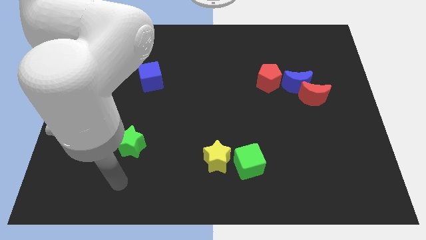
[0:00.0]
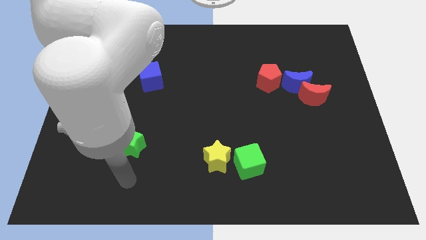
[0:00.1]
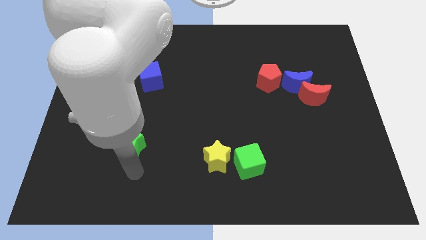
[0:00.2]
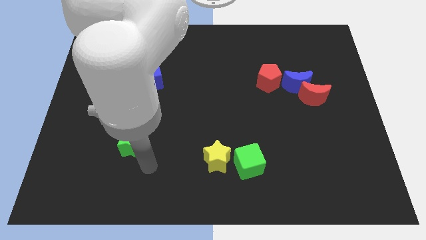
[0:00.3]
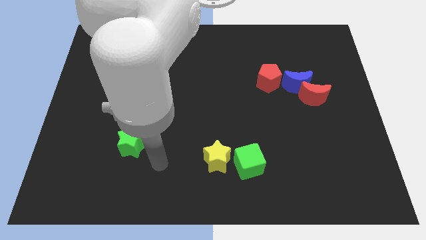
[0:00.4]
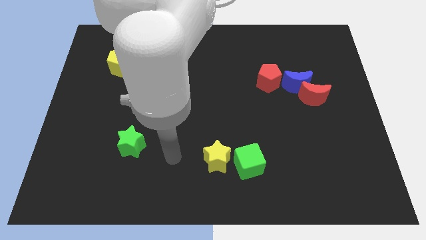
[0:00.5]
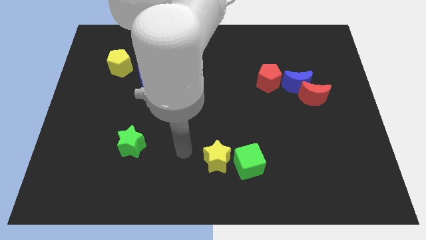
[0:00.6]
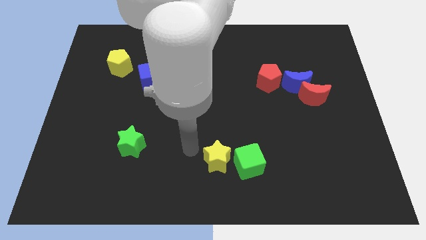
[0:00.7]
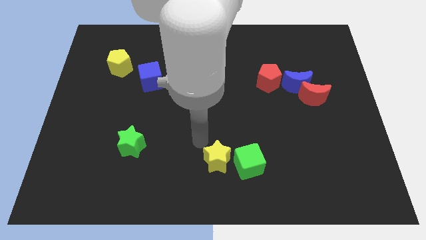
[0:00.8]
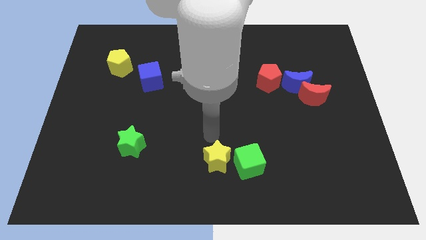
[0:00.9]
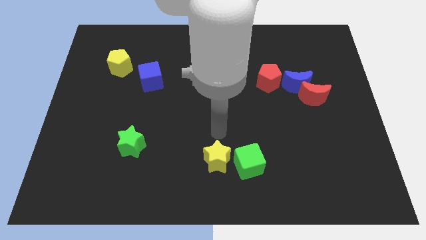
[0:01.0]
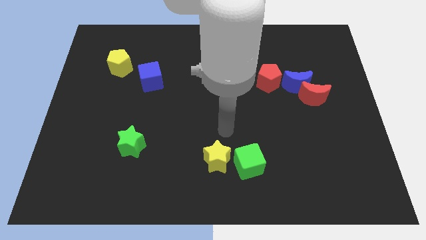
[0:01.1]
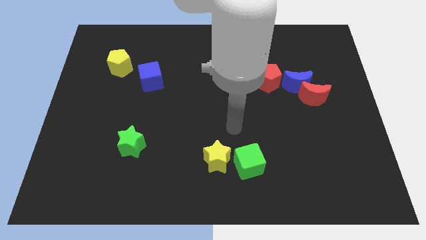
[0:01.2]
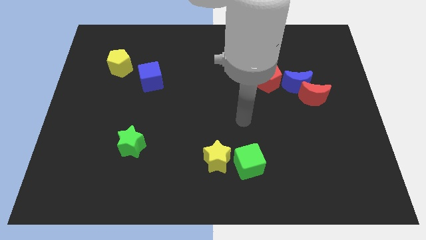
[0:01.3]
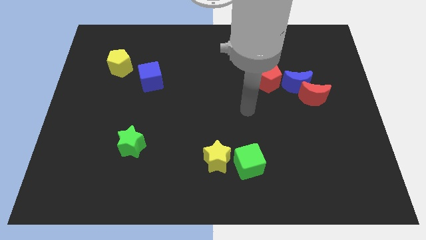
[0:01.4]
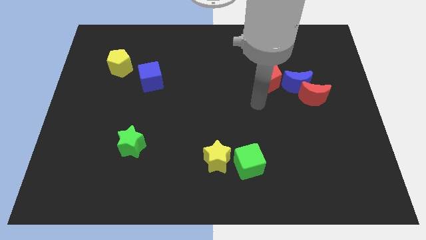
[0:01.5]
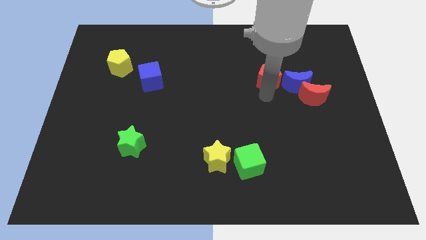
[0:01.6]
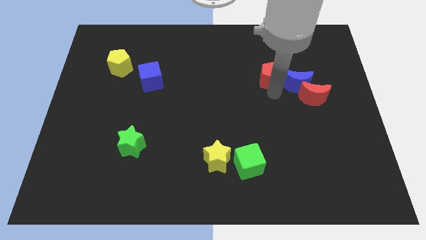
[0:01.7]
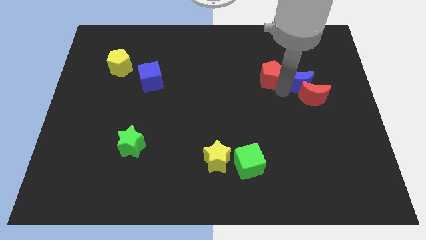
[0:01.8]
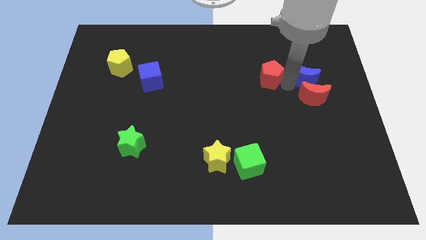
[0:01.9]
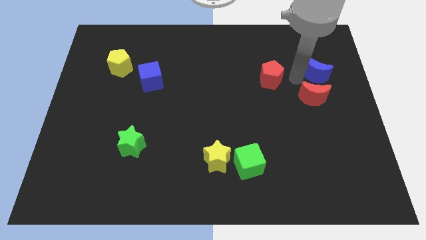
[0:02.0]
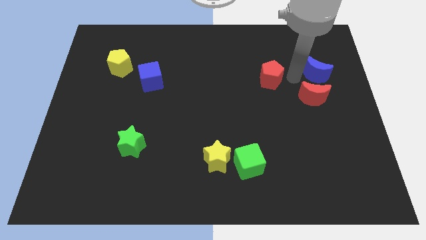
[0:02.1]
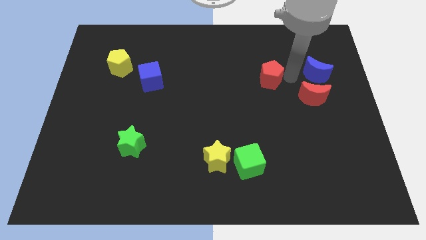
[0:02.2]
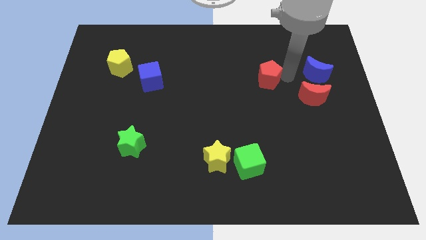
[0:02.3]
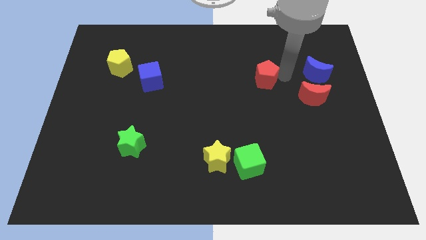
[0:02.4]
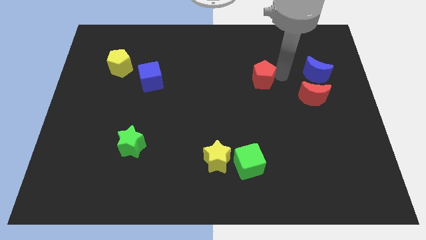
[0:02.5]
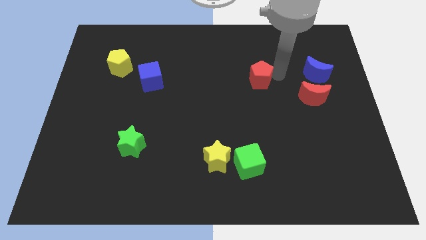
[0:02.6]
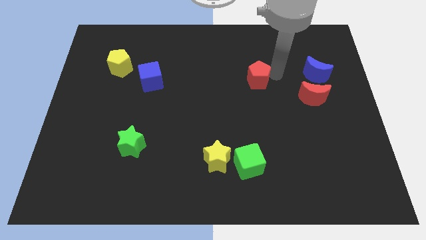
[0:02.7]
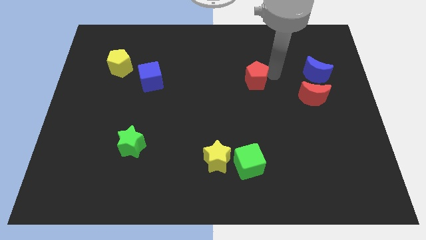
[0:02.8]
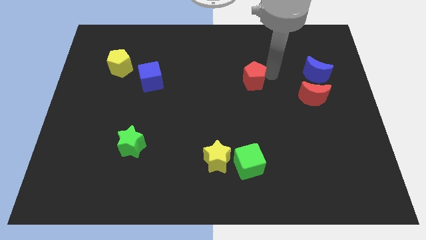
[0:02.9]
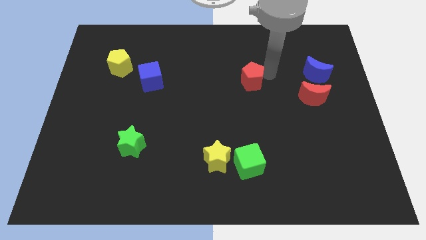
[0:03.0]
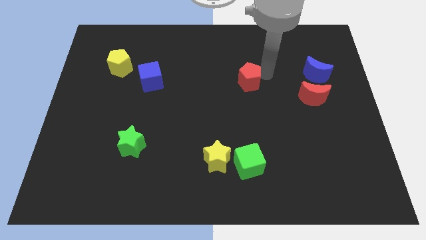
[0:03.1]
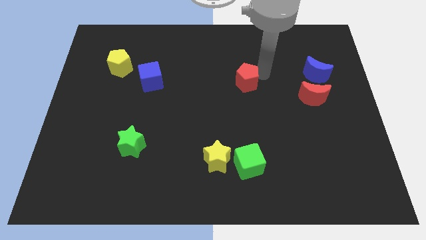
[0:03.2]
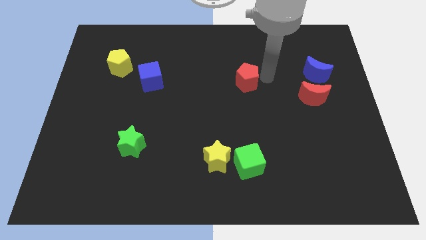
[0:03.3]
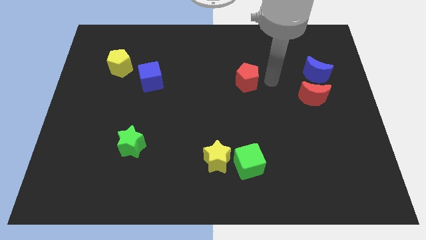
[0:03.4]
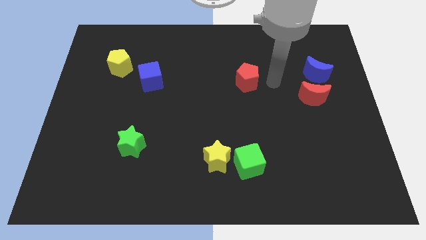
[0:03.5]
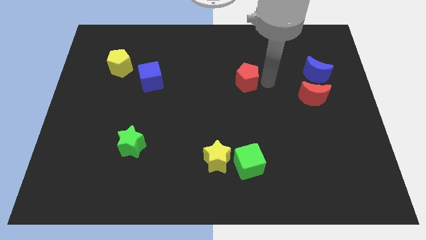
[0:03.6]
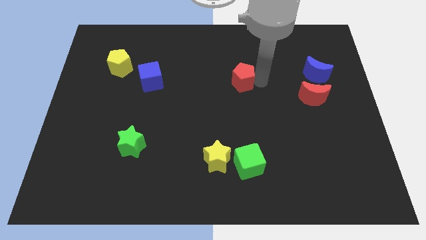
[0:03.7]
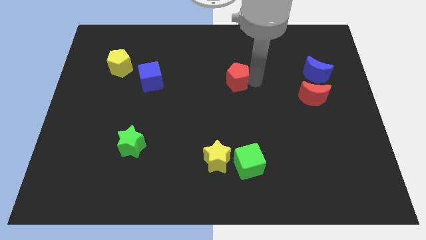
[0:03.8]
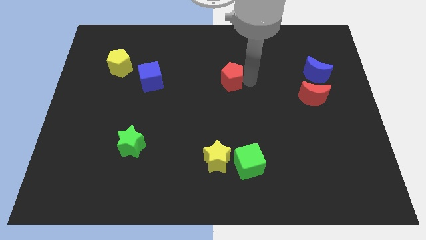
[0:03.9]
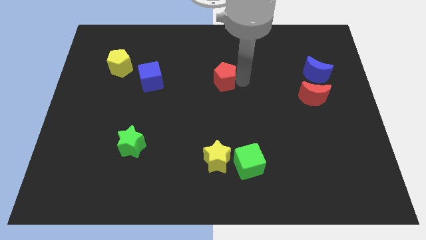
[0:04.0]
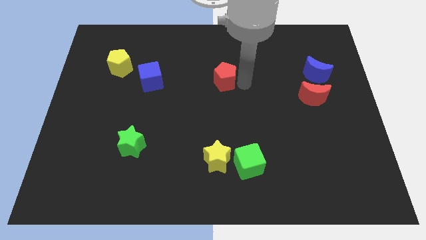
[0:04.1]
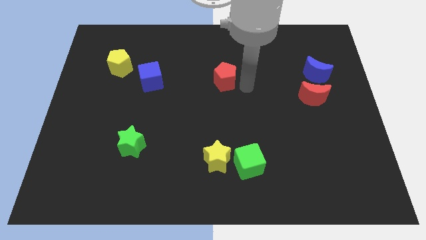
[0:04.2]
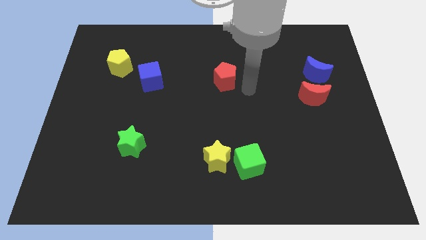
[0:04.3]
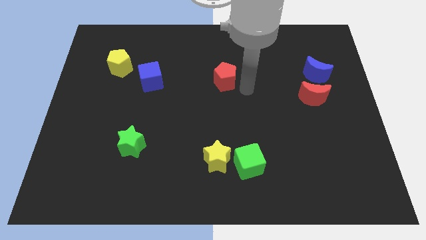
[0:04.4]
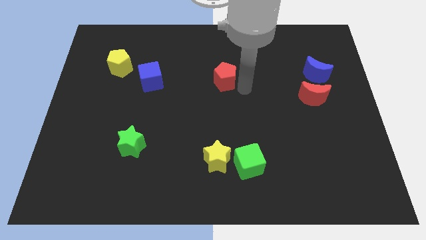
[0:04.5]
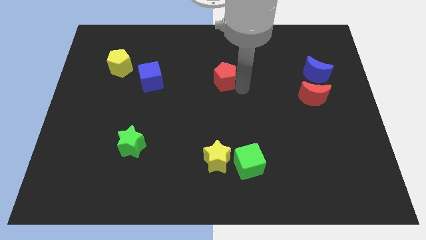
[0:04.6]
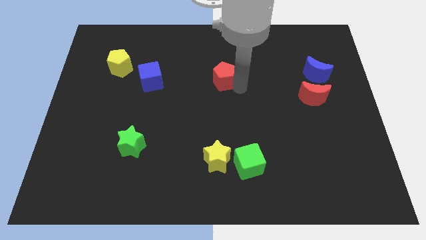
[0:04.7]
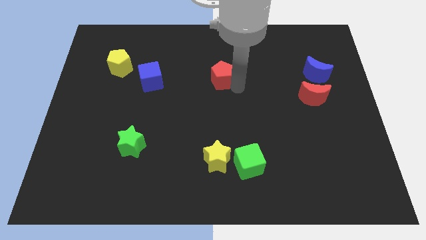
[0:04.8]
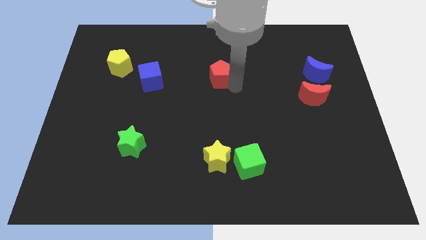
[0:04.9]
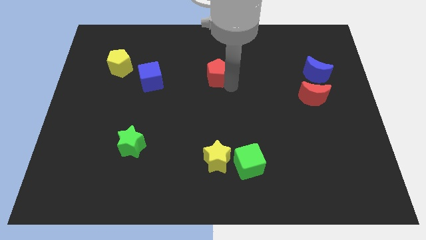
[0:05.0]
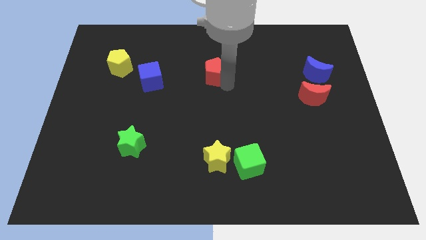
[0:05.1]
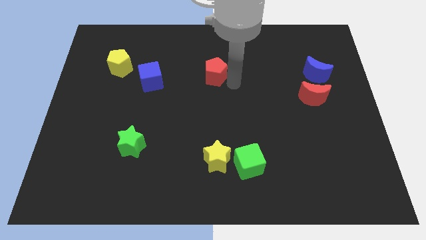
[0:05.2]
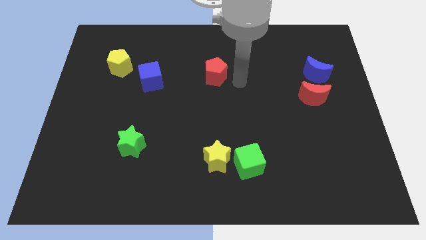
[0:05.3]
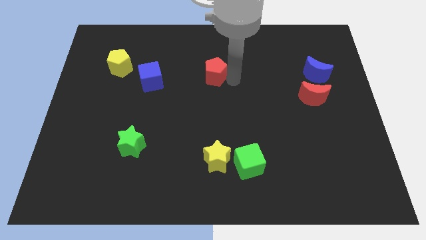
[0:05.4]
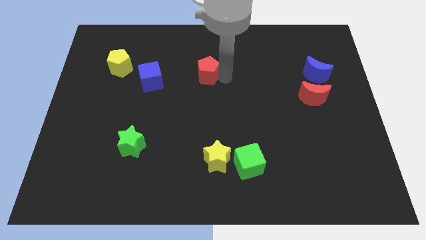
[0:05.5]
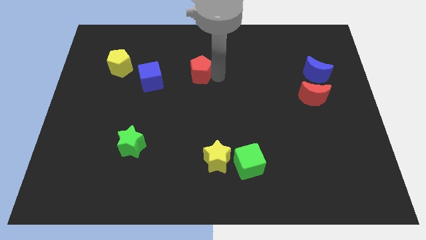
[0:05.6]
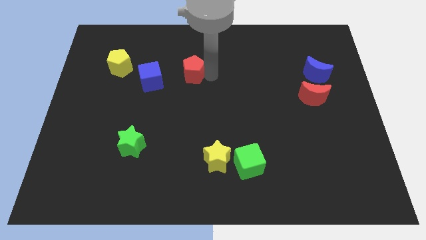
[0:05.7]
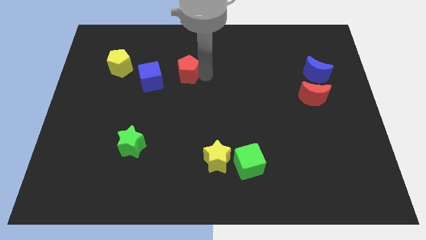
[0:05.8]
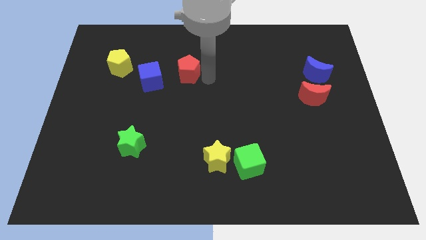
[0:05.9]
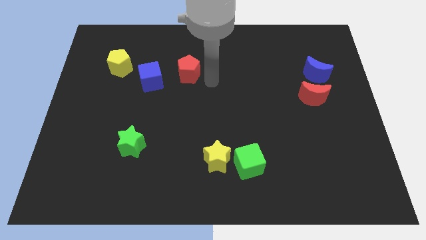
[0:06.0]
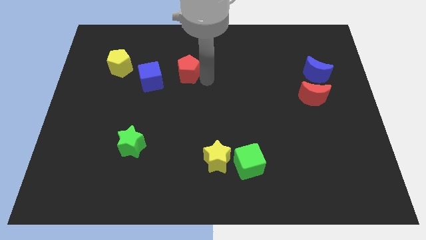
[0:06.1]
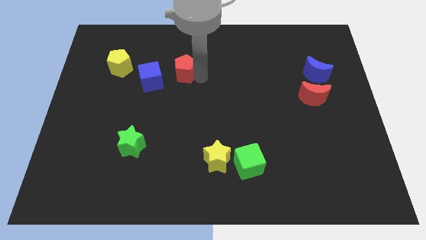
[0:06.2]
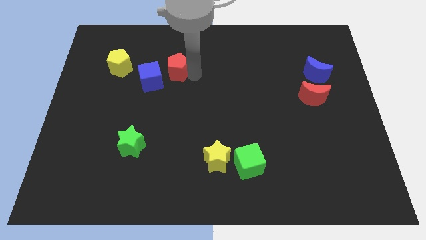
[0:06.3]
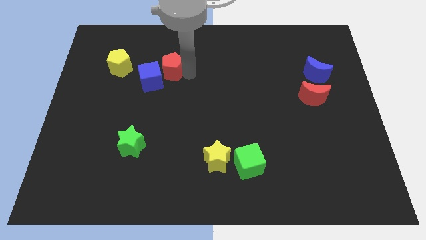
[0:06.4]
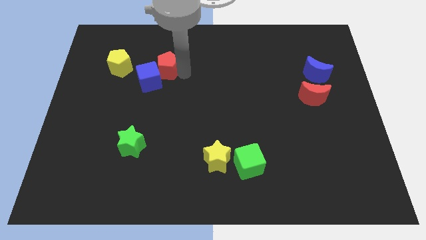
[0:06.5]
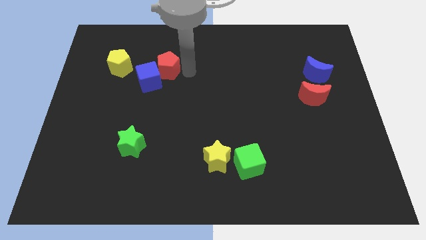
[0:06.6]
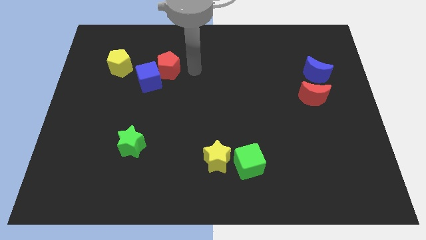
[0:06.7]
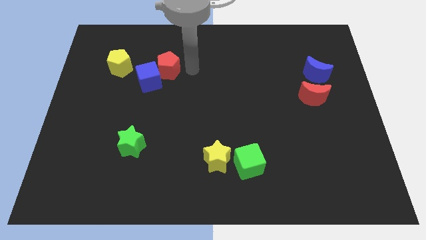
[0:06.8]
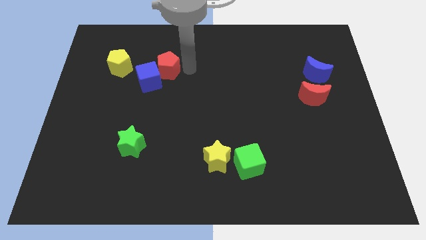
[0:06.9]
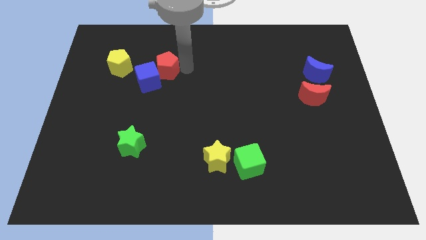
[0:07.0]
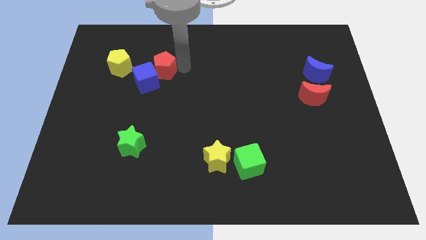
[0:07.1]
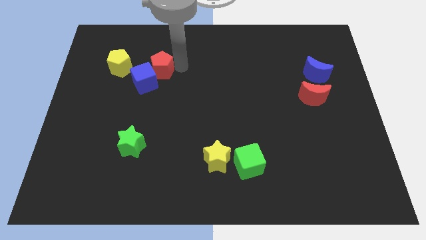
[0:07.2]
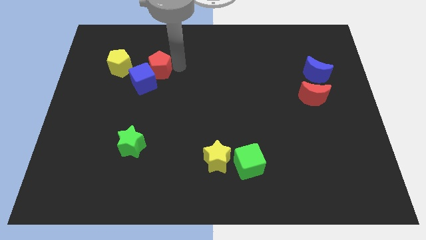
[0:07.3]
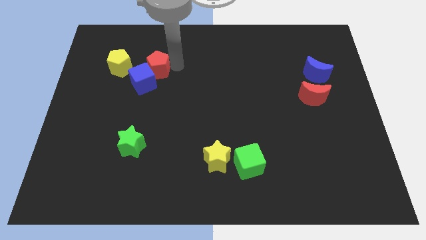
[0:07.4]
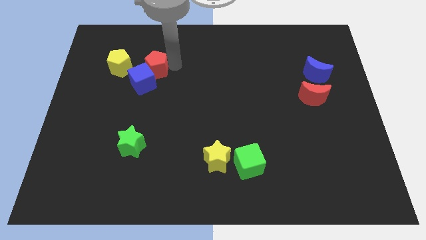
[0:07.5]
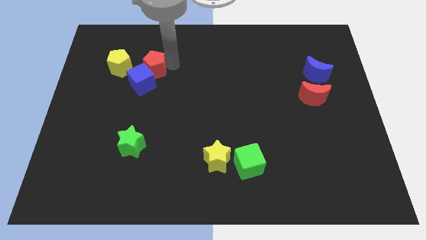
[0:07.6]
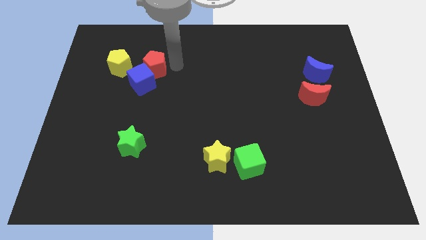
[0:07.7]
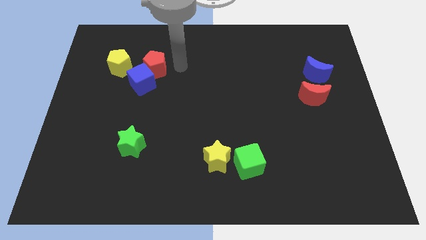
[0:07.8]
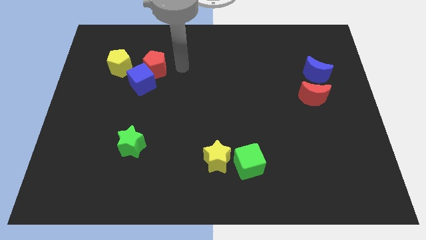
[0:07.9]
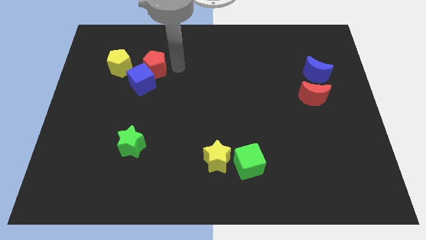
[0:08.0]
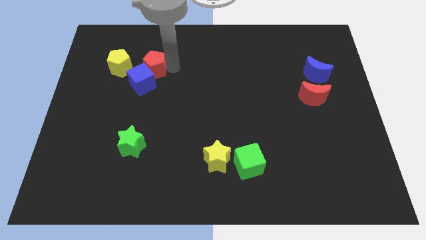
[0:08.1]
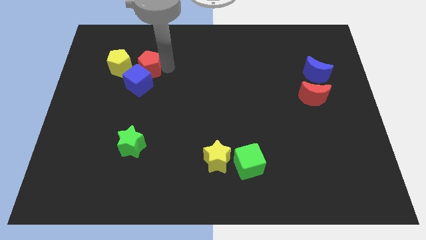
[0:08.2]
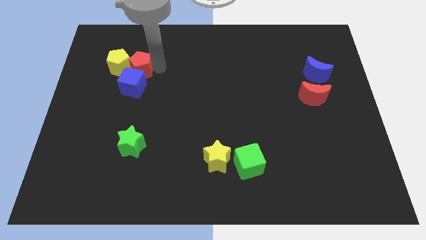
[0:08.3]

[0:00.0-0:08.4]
push the red pentagon to the yellow pentagon
